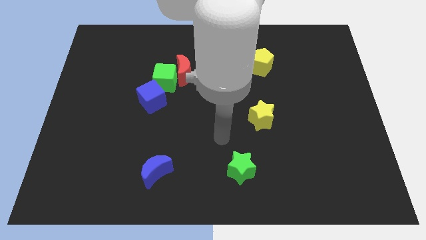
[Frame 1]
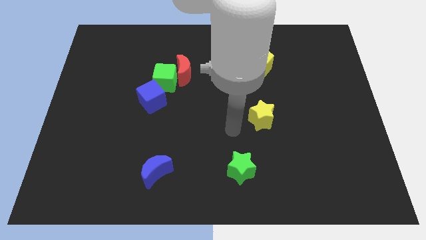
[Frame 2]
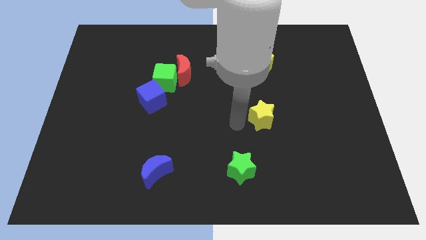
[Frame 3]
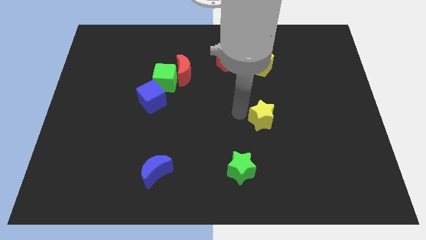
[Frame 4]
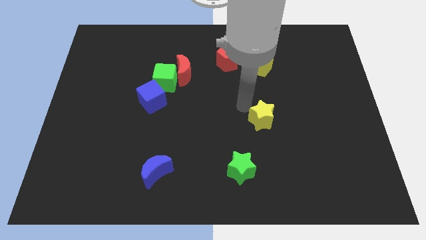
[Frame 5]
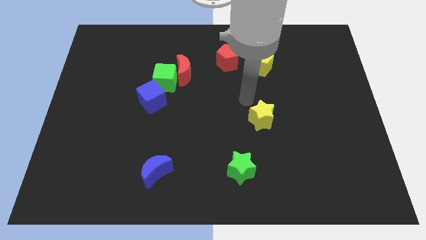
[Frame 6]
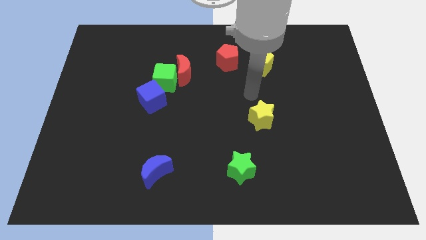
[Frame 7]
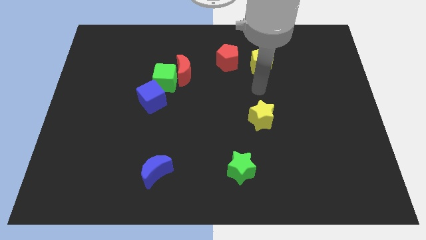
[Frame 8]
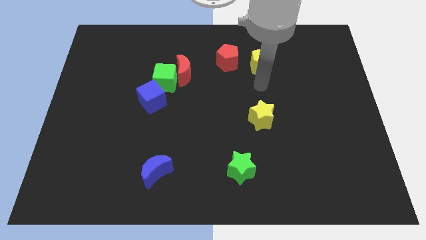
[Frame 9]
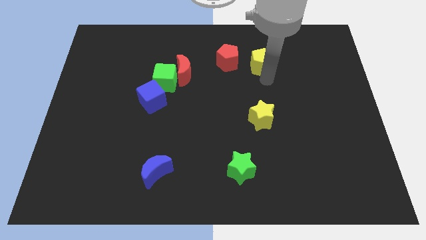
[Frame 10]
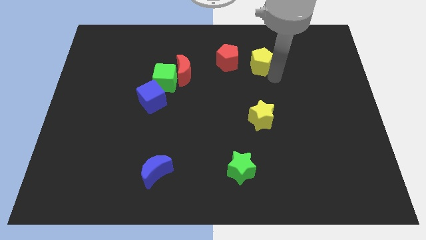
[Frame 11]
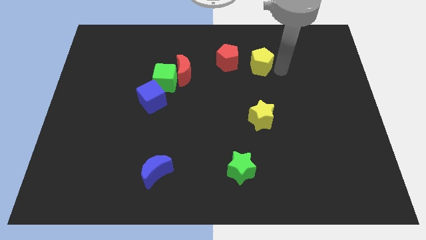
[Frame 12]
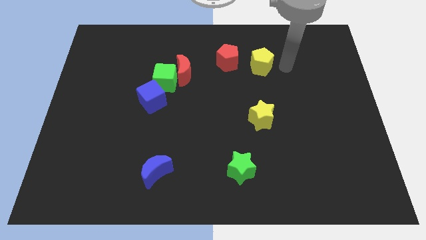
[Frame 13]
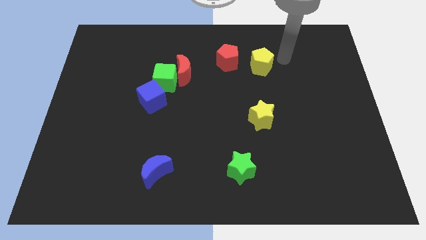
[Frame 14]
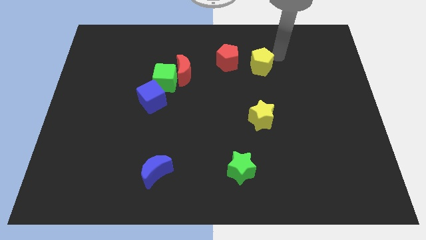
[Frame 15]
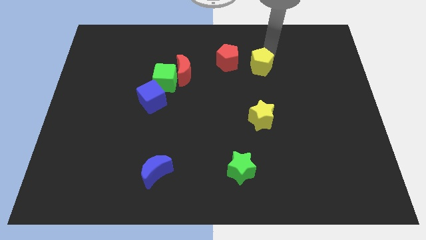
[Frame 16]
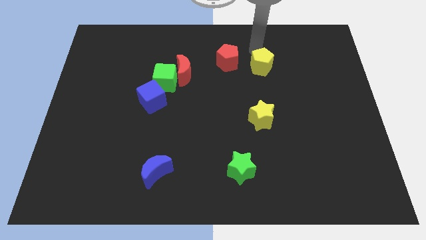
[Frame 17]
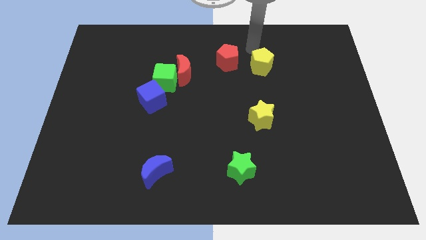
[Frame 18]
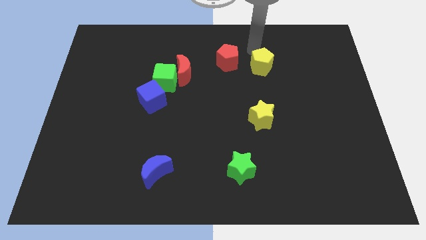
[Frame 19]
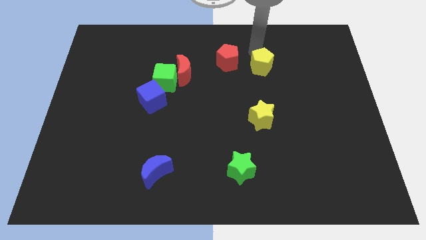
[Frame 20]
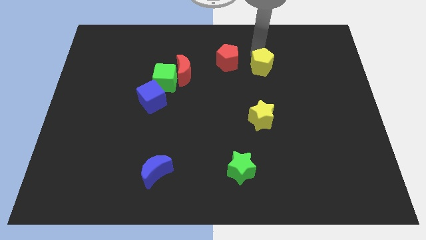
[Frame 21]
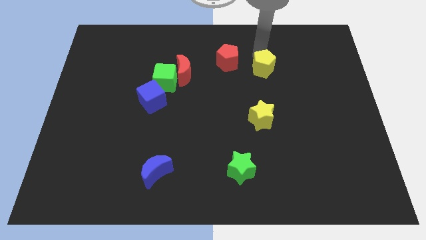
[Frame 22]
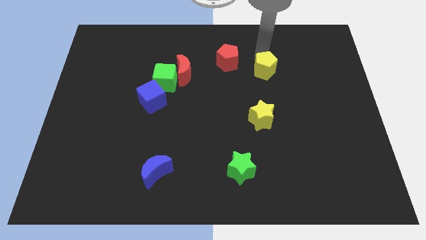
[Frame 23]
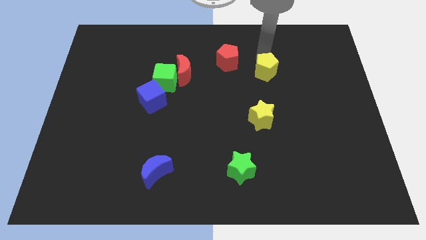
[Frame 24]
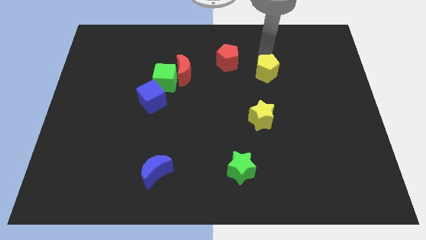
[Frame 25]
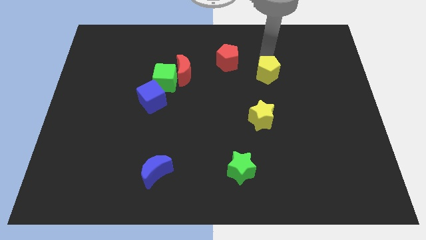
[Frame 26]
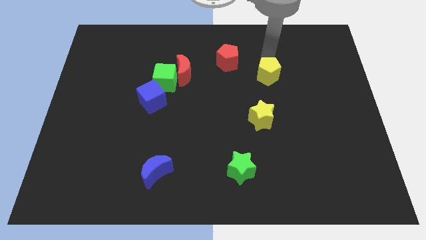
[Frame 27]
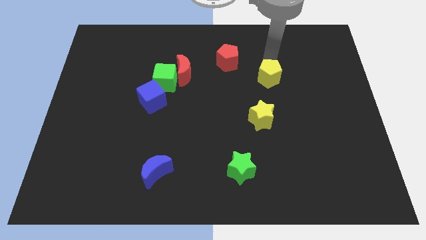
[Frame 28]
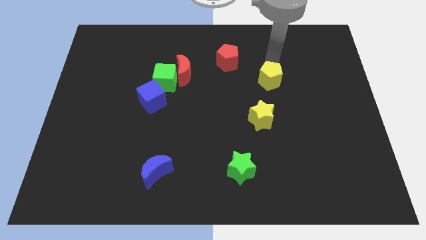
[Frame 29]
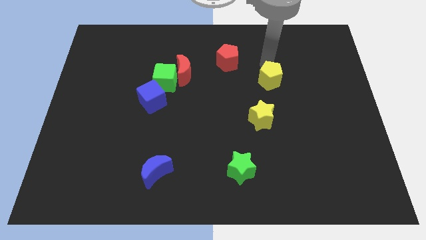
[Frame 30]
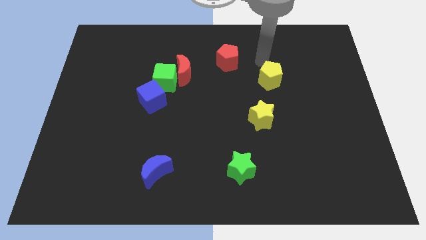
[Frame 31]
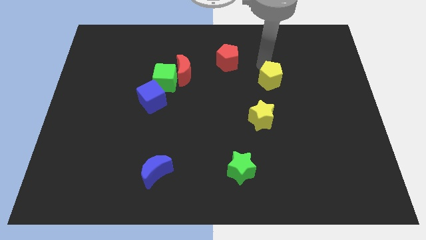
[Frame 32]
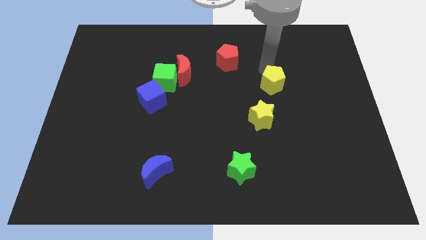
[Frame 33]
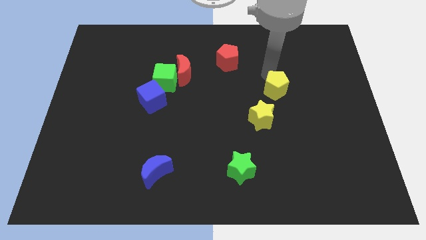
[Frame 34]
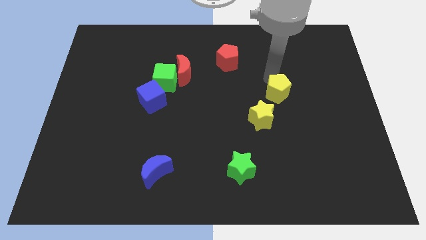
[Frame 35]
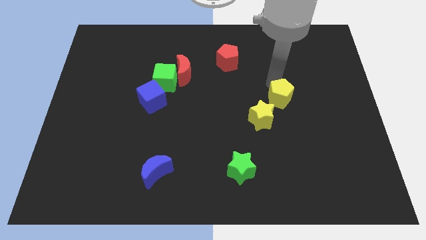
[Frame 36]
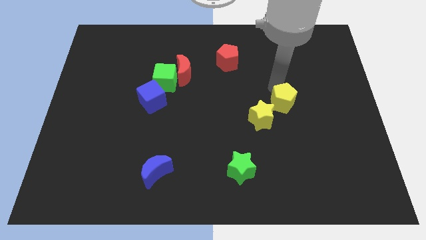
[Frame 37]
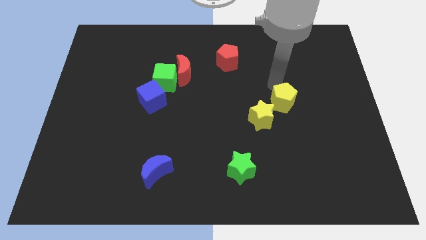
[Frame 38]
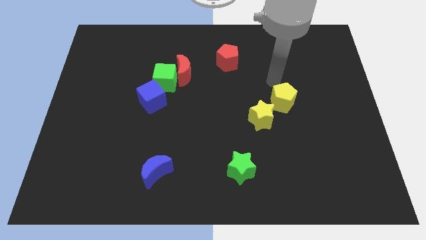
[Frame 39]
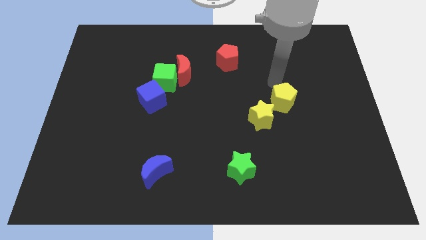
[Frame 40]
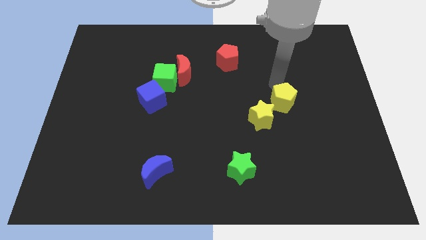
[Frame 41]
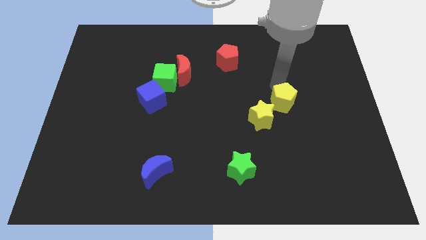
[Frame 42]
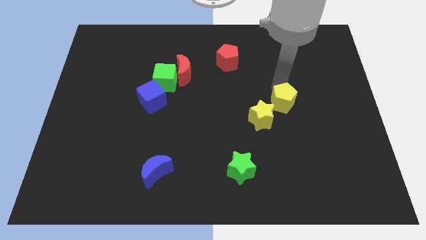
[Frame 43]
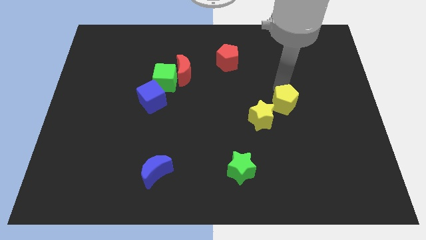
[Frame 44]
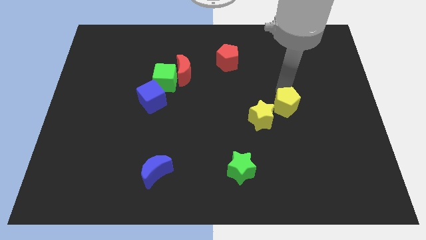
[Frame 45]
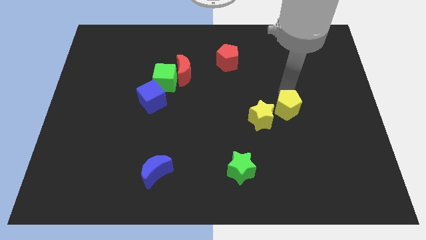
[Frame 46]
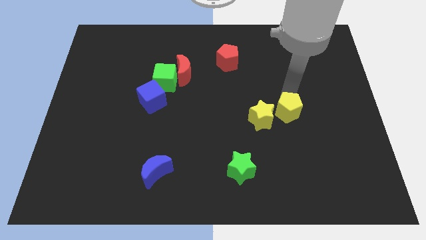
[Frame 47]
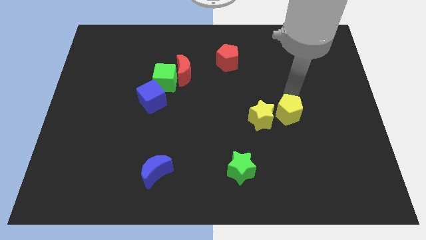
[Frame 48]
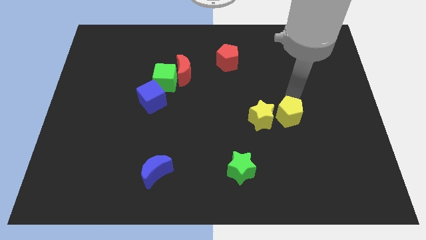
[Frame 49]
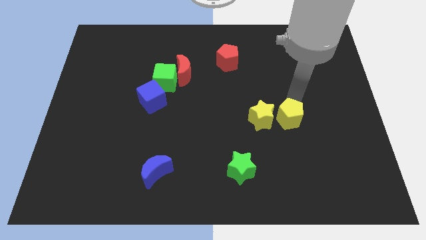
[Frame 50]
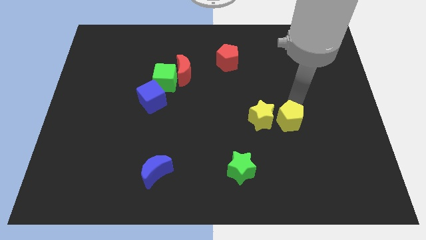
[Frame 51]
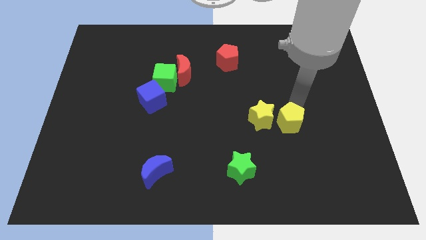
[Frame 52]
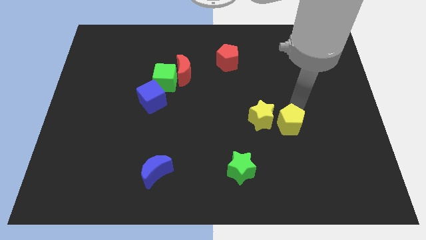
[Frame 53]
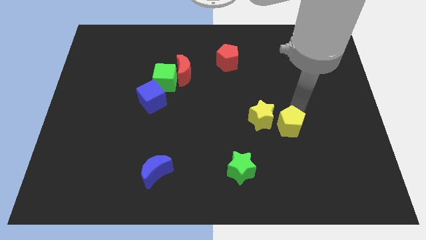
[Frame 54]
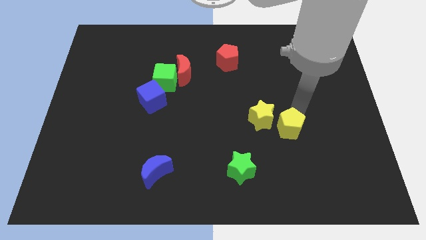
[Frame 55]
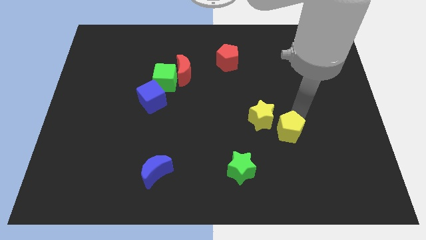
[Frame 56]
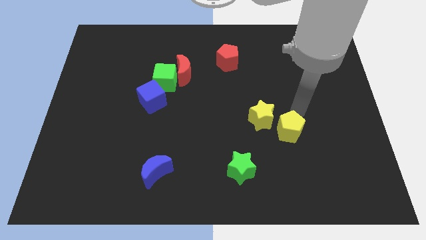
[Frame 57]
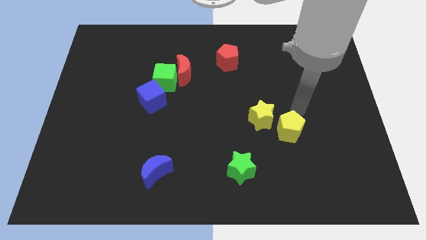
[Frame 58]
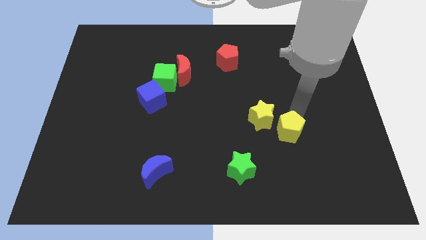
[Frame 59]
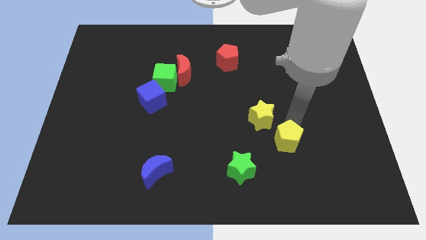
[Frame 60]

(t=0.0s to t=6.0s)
slide the yellow pentagon downwards

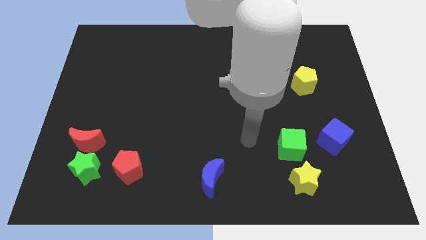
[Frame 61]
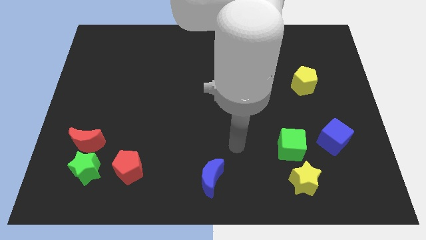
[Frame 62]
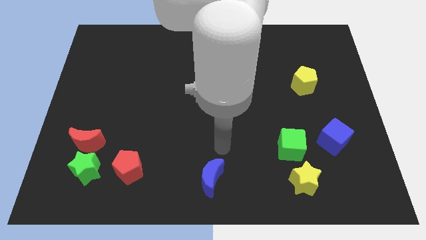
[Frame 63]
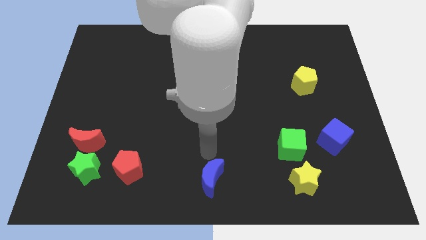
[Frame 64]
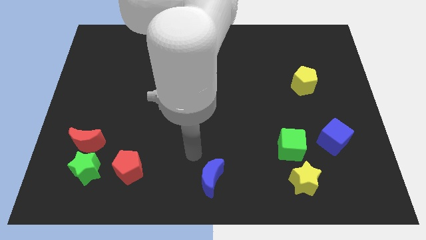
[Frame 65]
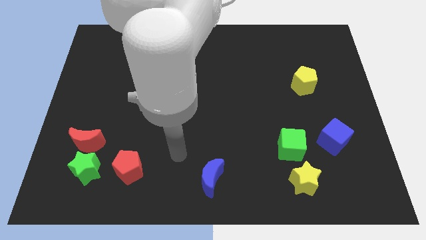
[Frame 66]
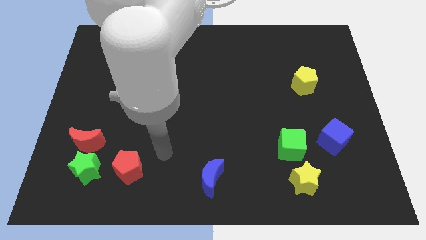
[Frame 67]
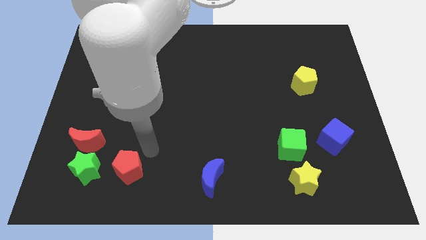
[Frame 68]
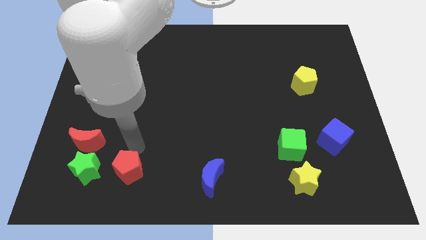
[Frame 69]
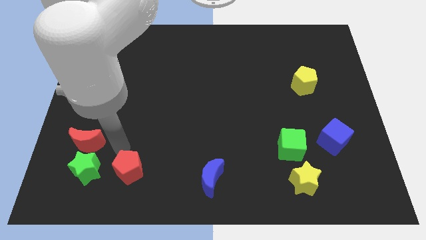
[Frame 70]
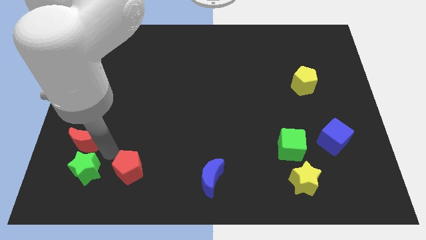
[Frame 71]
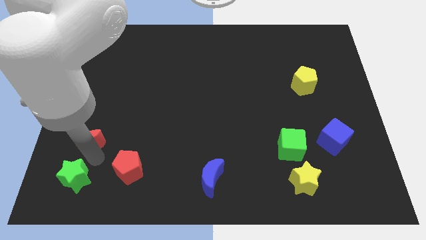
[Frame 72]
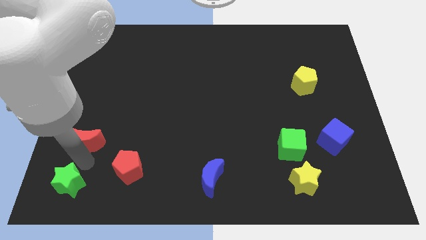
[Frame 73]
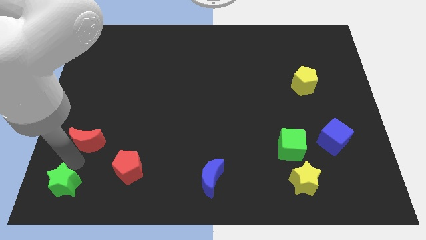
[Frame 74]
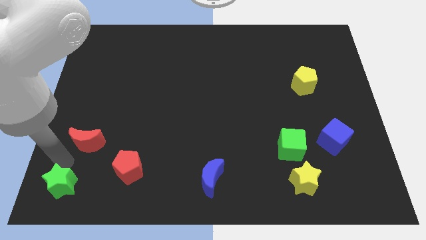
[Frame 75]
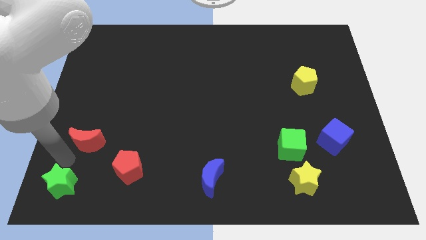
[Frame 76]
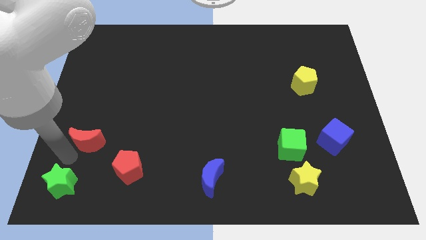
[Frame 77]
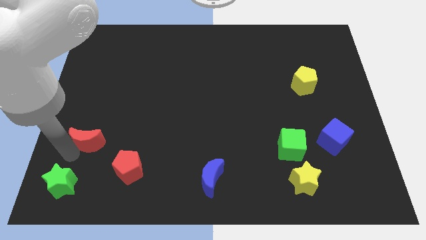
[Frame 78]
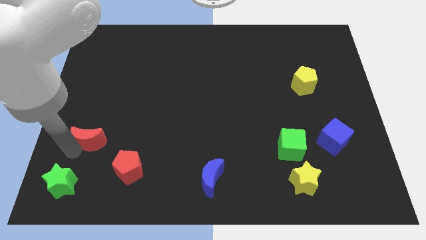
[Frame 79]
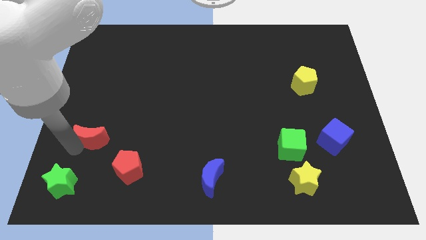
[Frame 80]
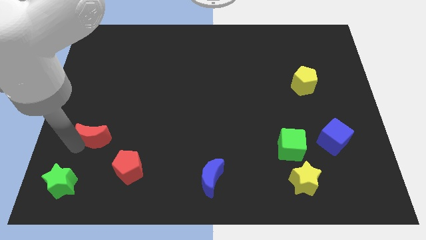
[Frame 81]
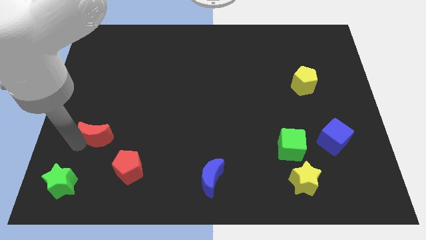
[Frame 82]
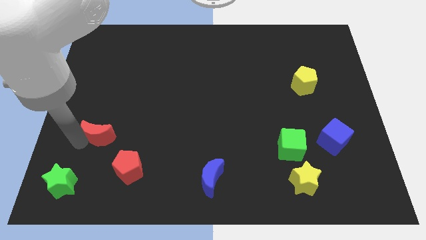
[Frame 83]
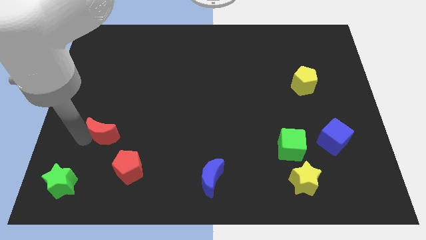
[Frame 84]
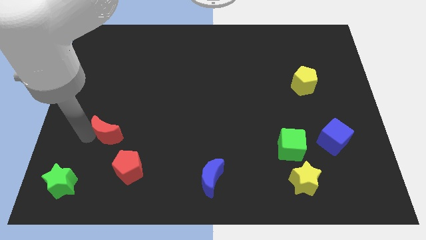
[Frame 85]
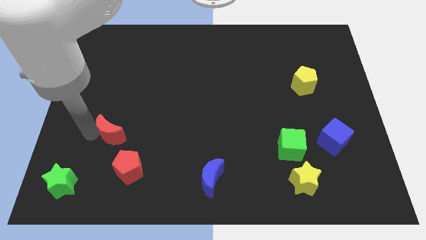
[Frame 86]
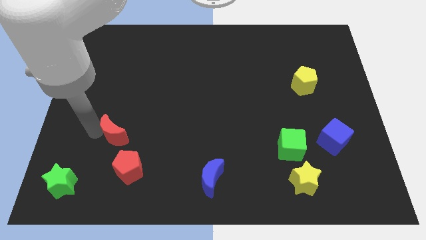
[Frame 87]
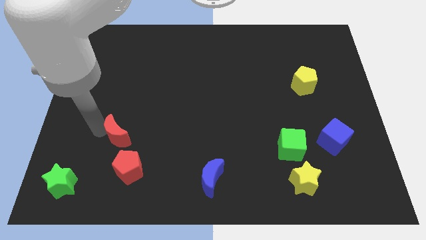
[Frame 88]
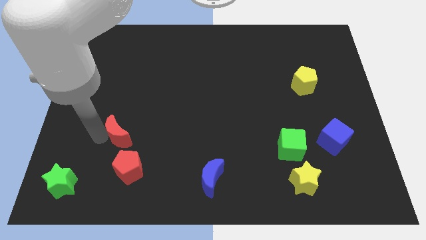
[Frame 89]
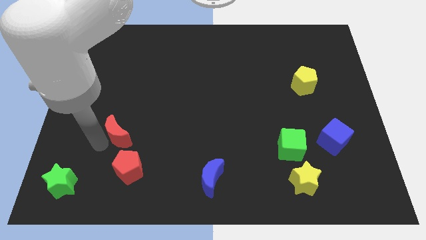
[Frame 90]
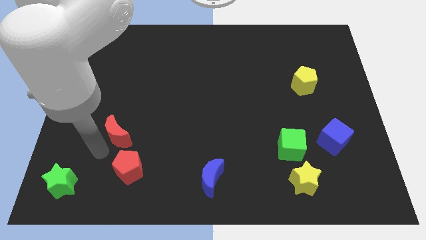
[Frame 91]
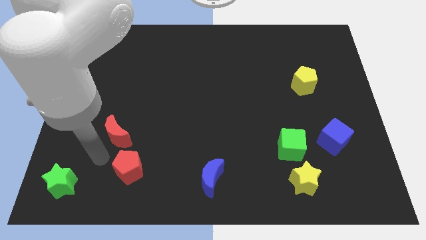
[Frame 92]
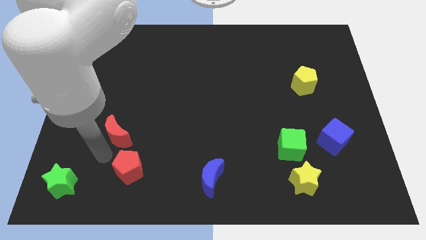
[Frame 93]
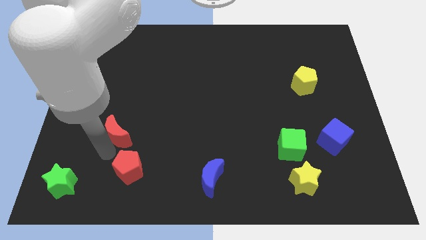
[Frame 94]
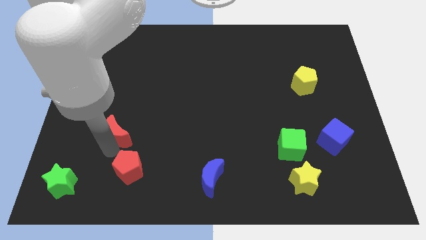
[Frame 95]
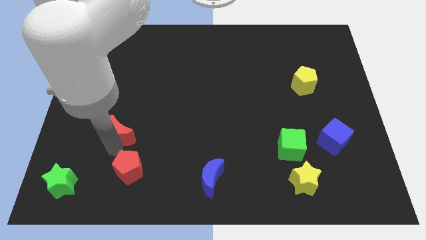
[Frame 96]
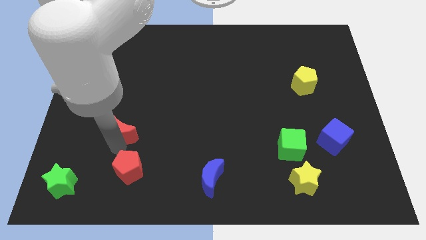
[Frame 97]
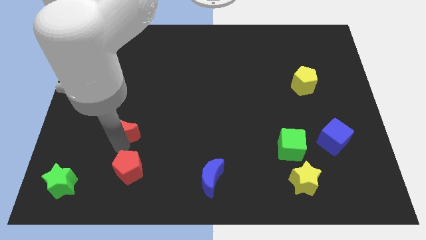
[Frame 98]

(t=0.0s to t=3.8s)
move the red moon a little bit upwards and right
